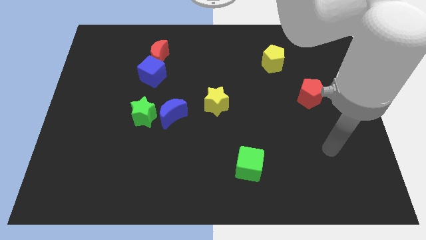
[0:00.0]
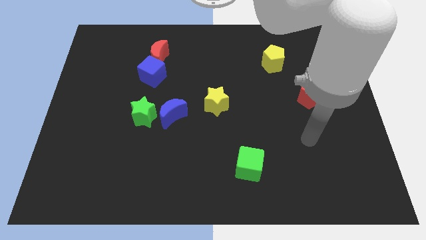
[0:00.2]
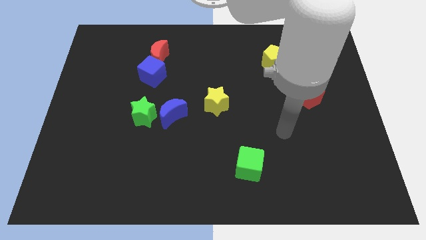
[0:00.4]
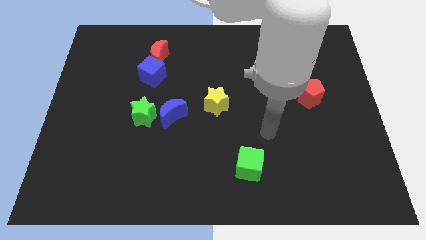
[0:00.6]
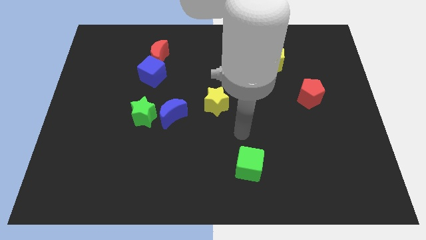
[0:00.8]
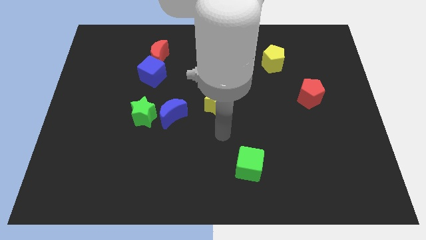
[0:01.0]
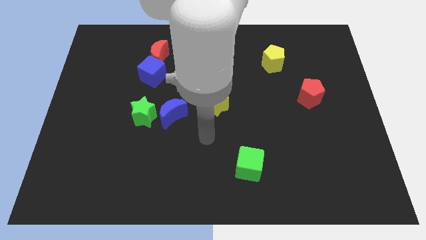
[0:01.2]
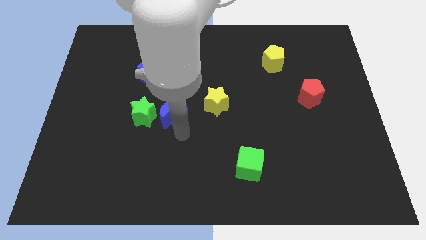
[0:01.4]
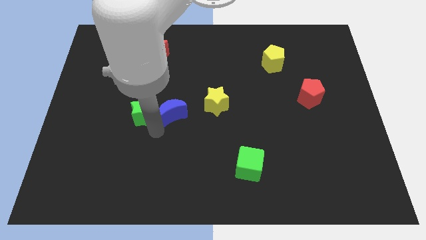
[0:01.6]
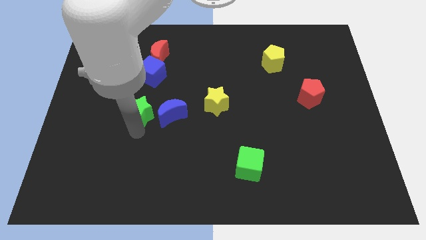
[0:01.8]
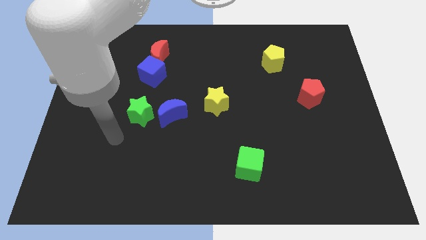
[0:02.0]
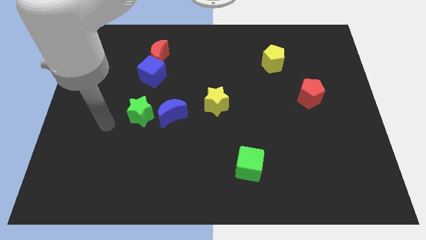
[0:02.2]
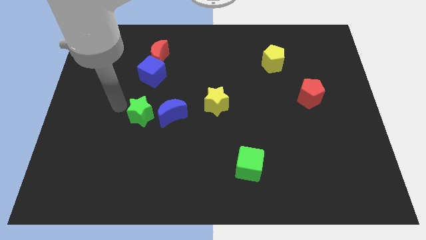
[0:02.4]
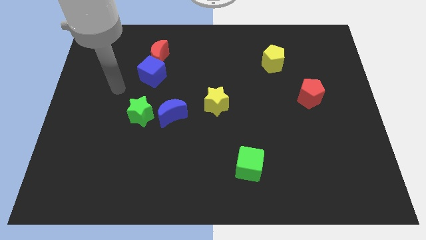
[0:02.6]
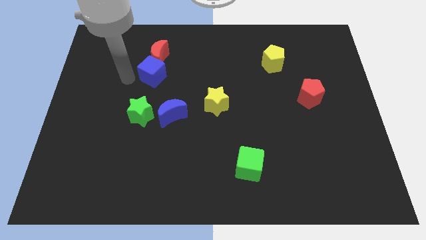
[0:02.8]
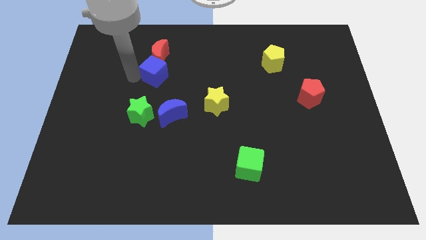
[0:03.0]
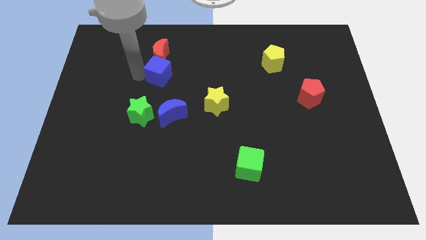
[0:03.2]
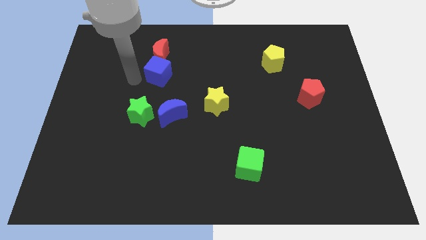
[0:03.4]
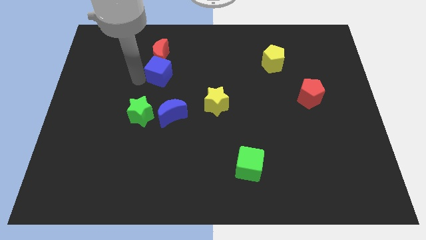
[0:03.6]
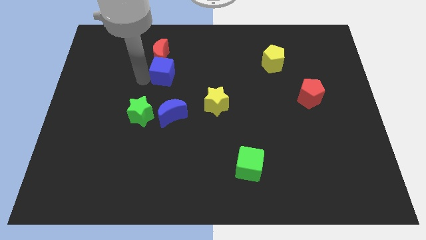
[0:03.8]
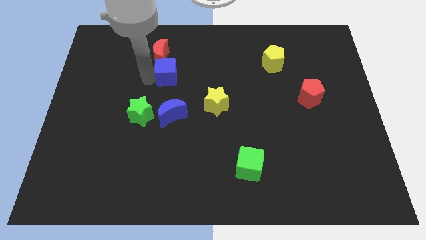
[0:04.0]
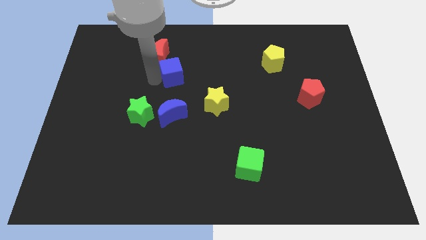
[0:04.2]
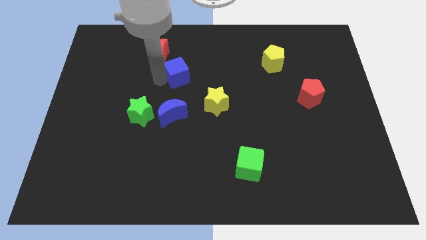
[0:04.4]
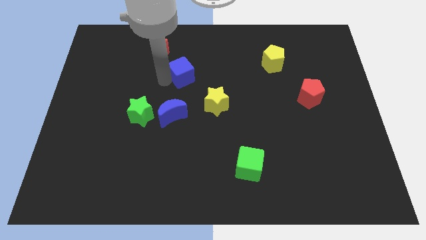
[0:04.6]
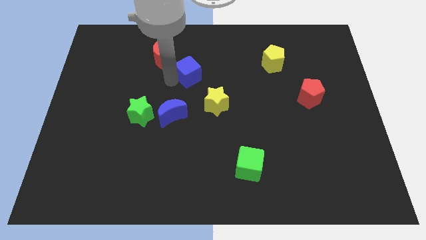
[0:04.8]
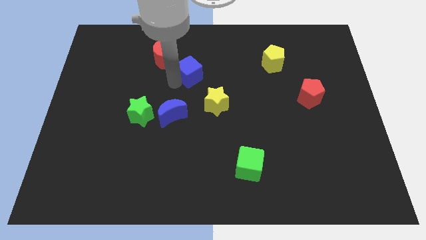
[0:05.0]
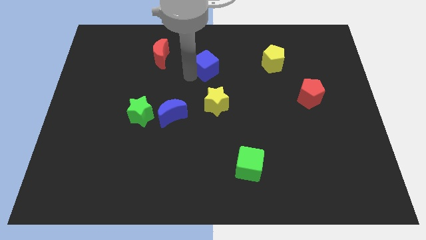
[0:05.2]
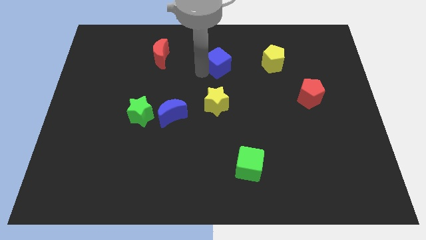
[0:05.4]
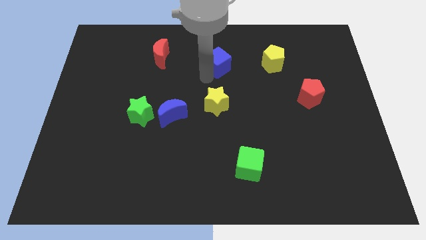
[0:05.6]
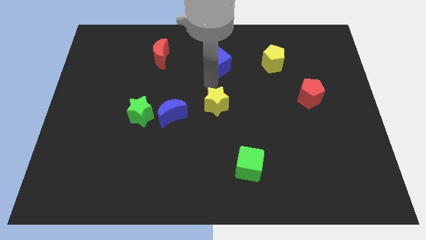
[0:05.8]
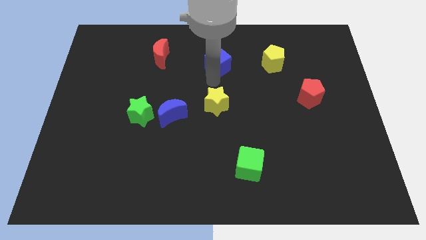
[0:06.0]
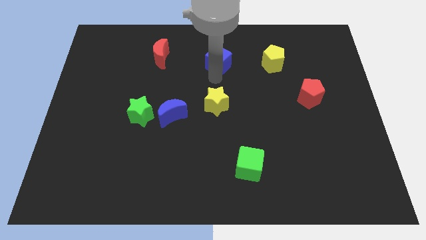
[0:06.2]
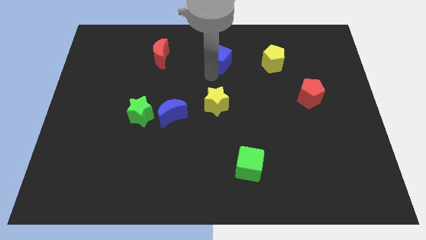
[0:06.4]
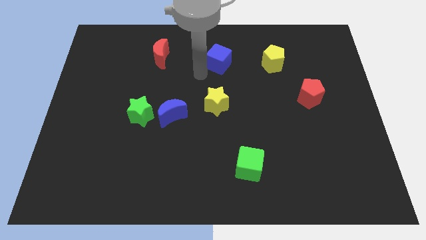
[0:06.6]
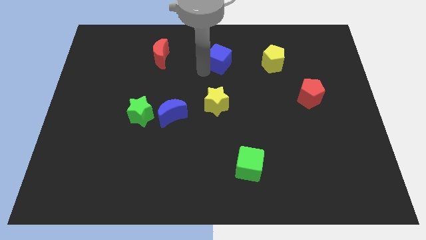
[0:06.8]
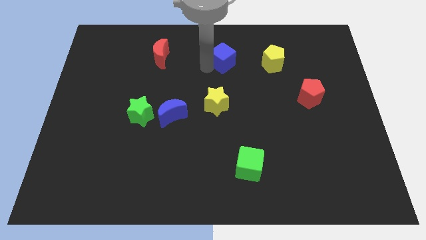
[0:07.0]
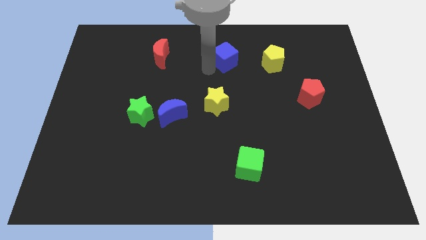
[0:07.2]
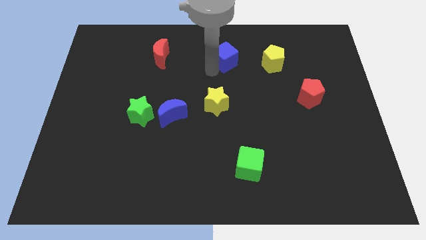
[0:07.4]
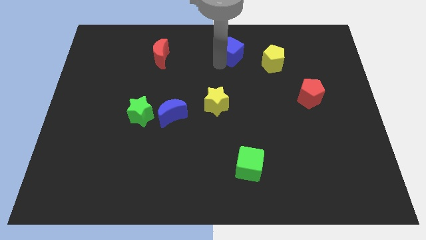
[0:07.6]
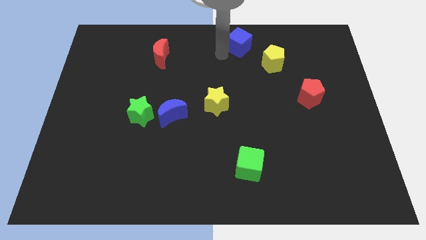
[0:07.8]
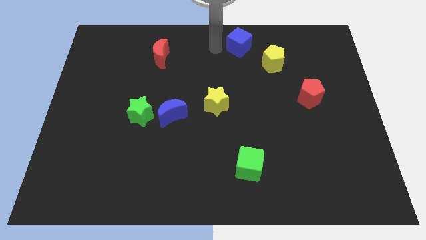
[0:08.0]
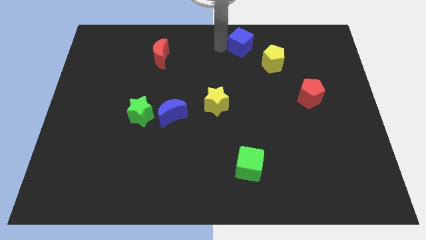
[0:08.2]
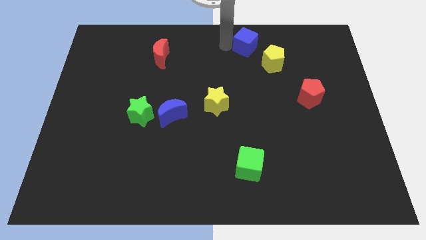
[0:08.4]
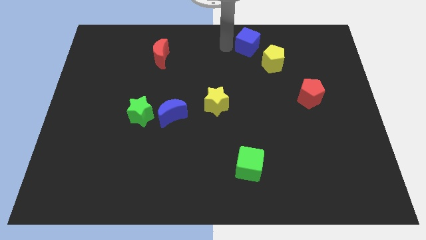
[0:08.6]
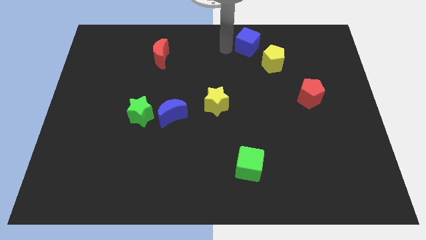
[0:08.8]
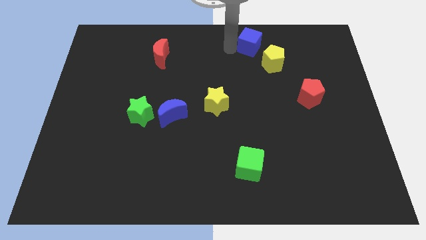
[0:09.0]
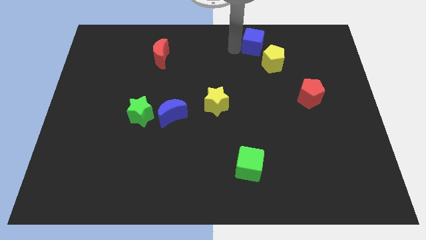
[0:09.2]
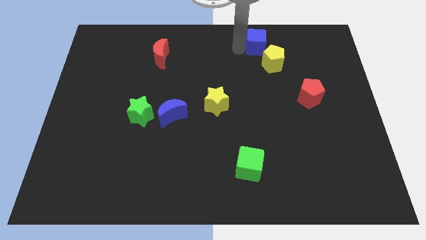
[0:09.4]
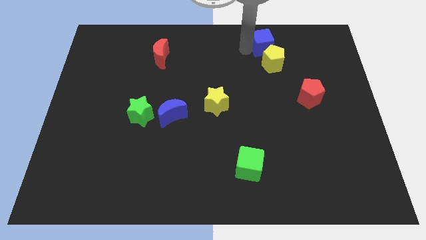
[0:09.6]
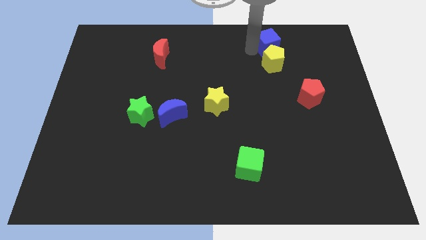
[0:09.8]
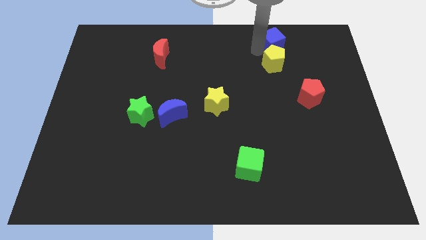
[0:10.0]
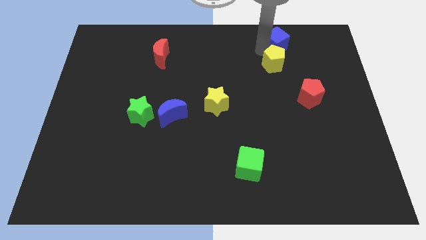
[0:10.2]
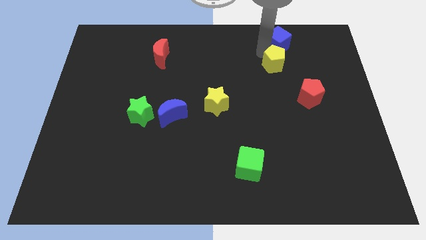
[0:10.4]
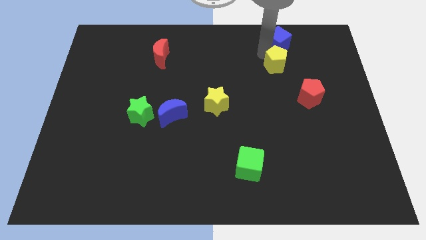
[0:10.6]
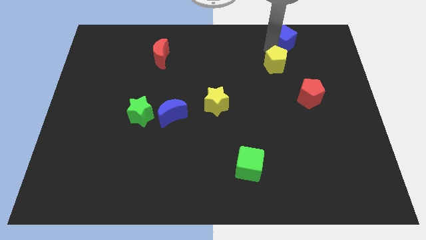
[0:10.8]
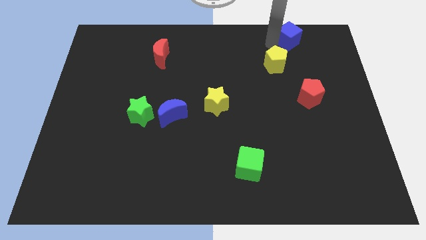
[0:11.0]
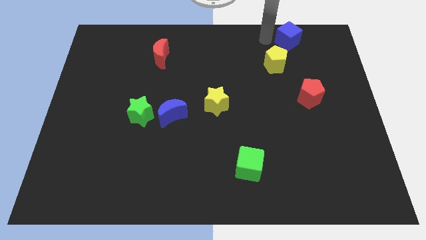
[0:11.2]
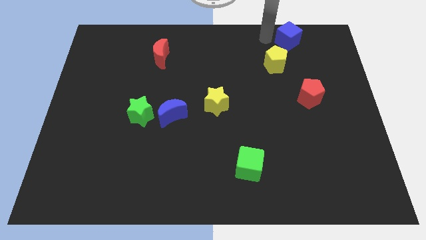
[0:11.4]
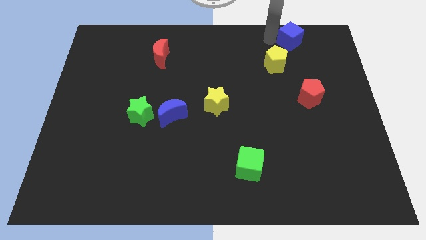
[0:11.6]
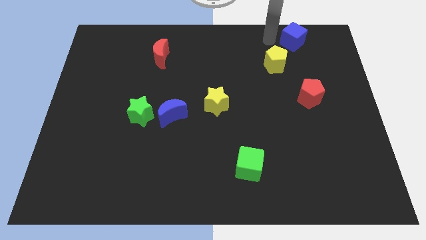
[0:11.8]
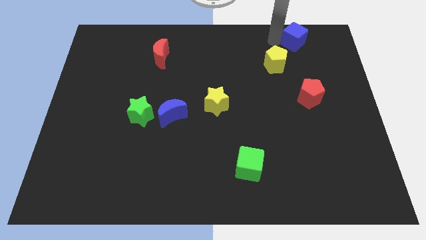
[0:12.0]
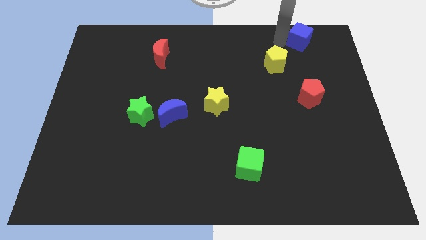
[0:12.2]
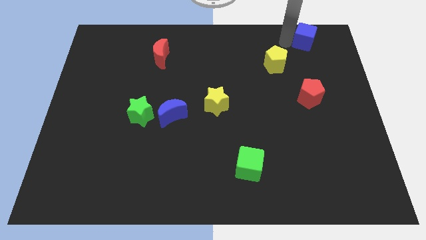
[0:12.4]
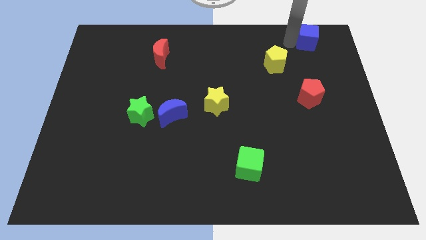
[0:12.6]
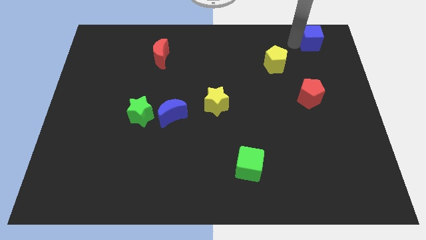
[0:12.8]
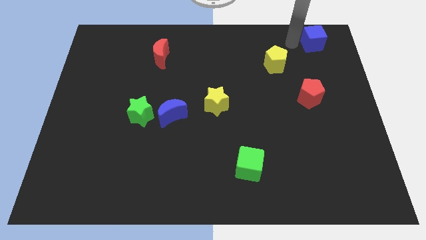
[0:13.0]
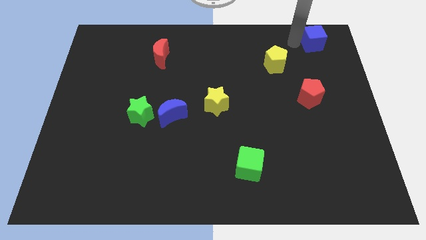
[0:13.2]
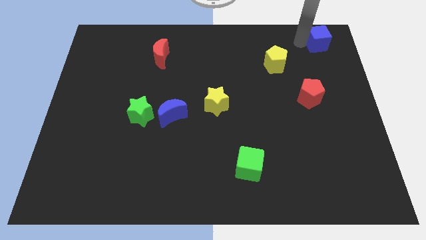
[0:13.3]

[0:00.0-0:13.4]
move the blue cube to the top right of the board

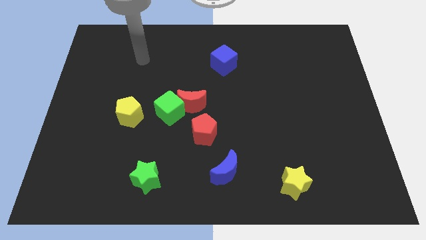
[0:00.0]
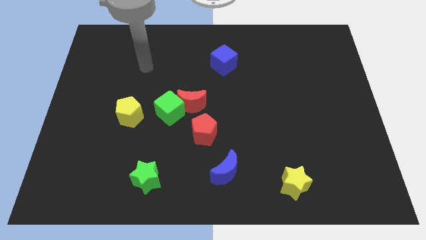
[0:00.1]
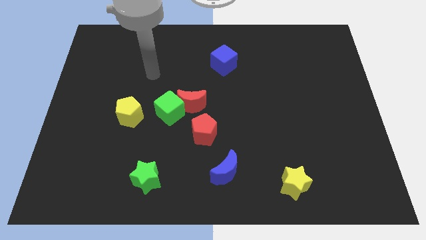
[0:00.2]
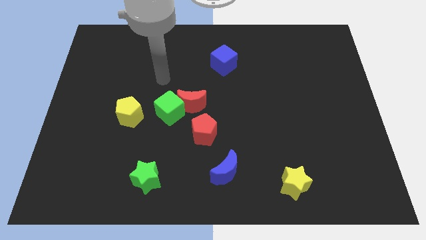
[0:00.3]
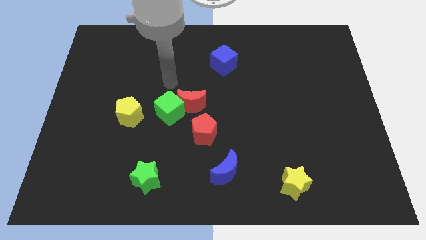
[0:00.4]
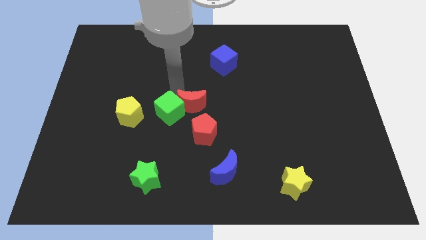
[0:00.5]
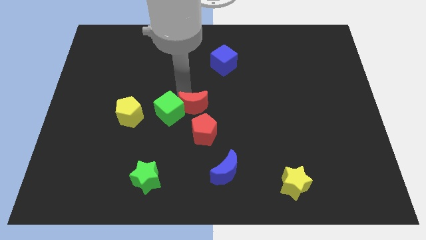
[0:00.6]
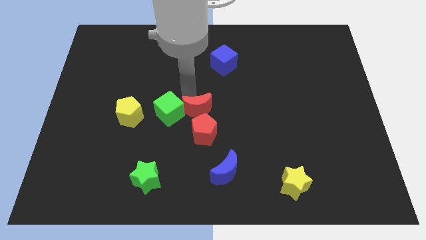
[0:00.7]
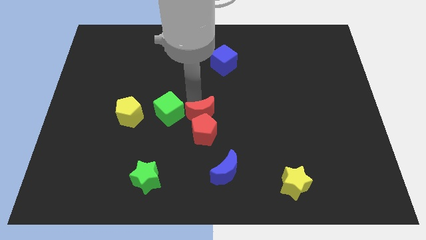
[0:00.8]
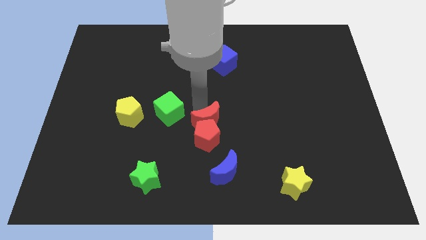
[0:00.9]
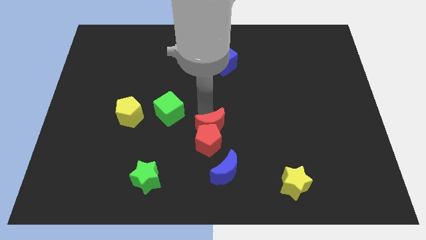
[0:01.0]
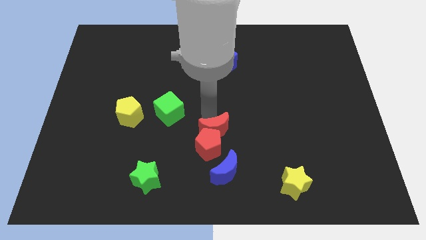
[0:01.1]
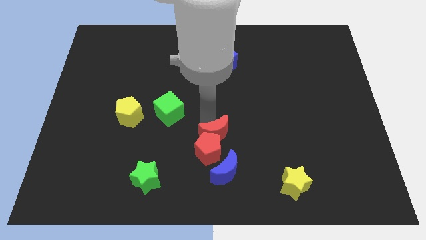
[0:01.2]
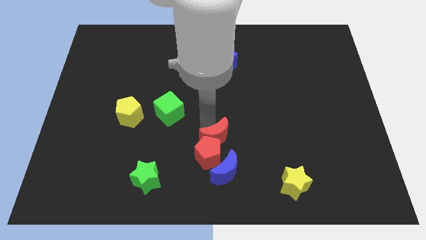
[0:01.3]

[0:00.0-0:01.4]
put the red pentagon to the bottom side
